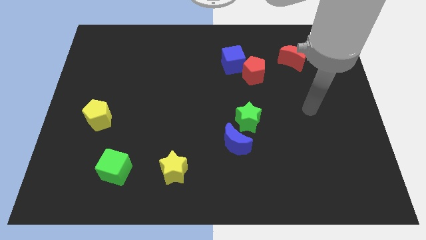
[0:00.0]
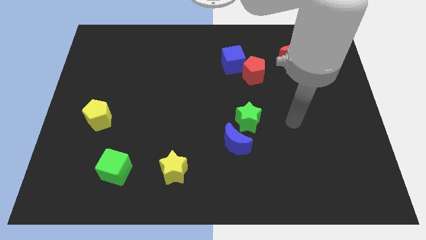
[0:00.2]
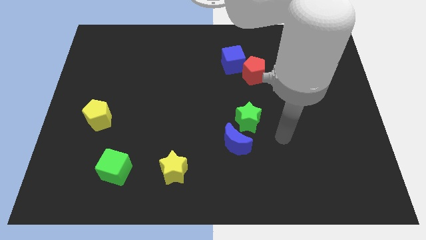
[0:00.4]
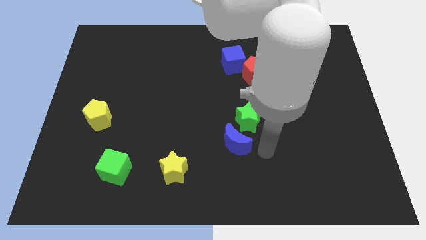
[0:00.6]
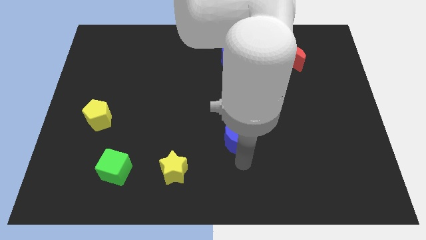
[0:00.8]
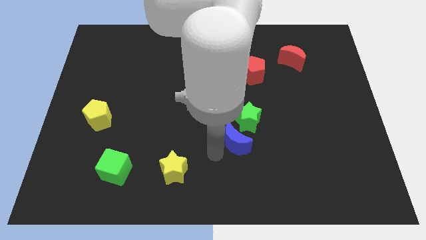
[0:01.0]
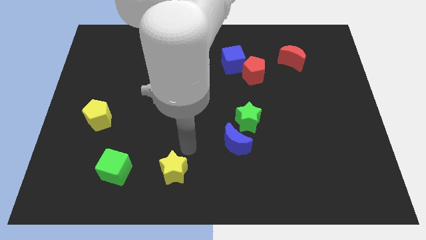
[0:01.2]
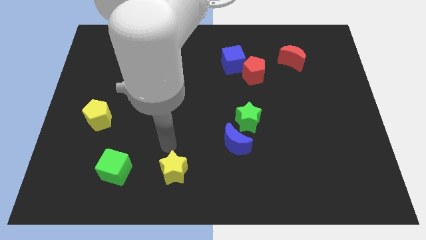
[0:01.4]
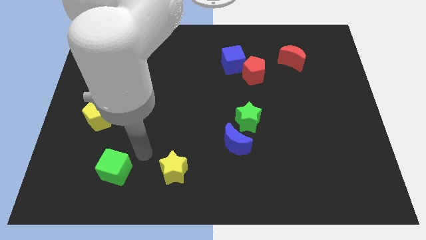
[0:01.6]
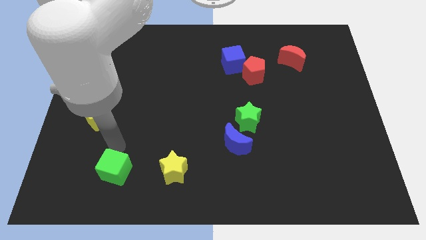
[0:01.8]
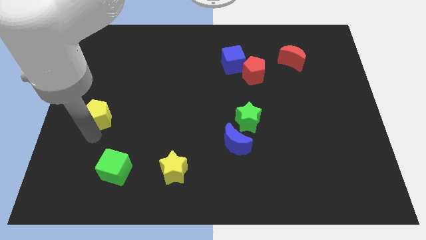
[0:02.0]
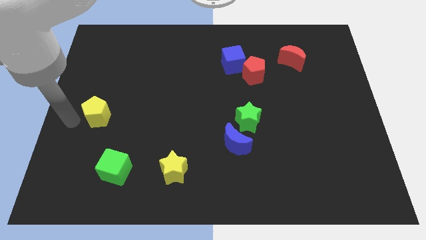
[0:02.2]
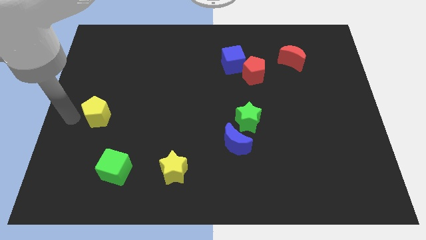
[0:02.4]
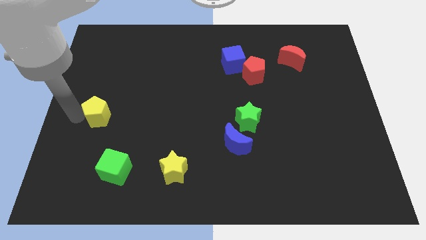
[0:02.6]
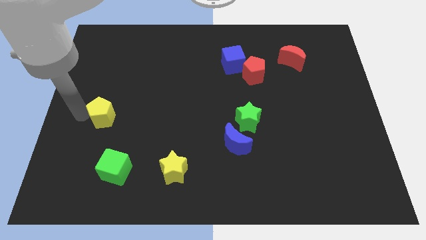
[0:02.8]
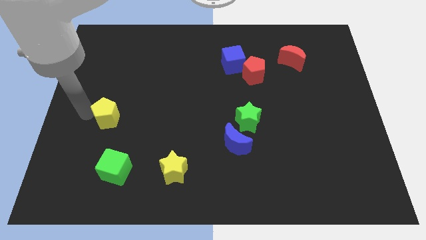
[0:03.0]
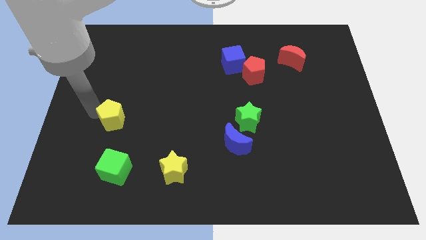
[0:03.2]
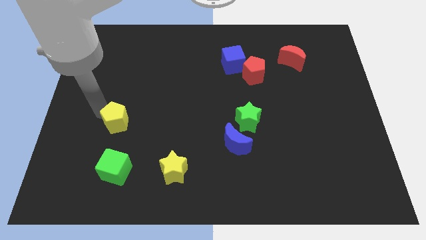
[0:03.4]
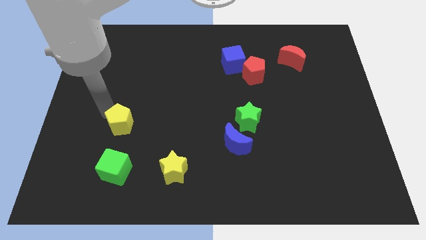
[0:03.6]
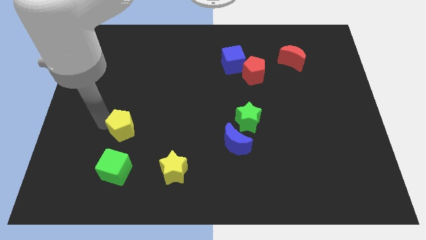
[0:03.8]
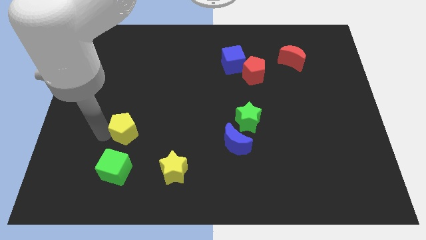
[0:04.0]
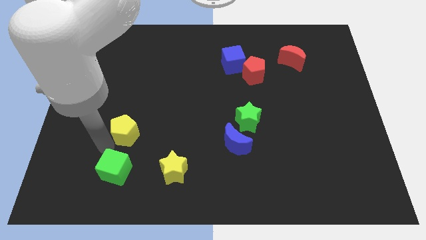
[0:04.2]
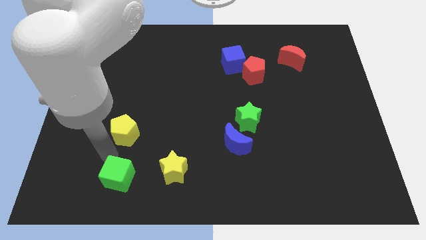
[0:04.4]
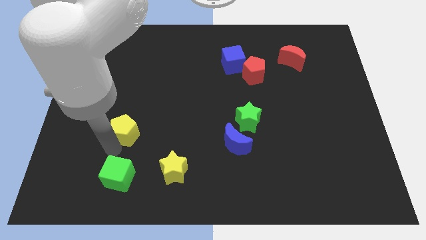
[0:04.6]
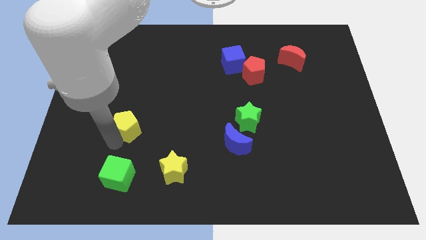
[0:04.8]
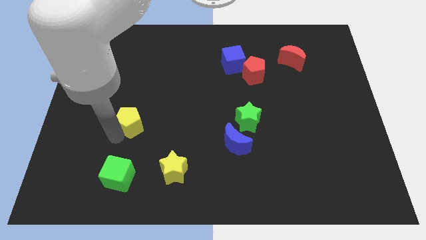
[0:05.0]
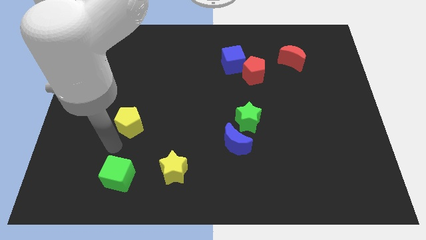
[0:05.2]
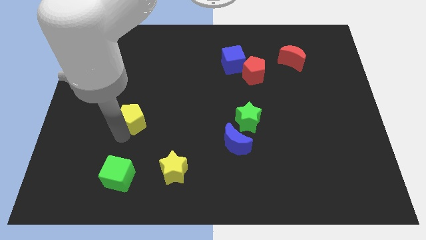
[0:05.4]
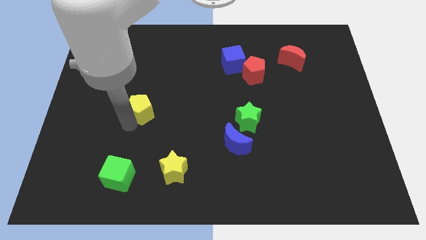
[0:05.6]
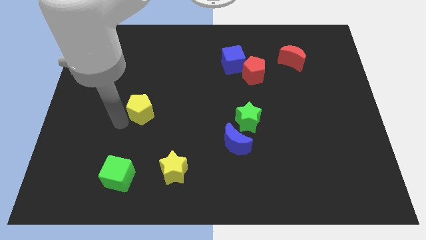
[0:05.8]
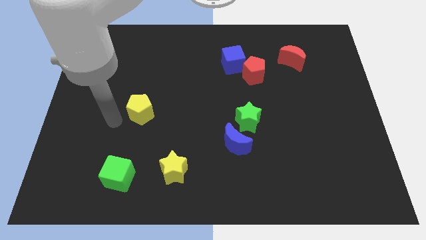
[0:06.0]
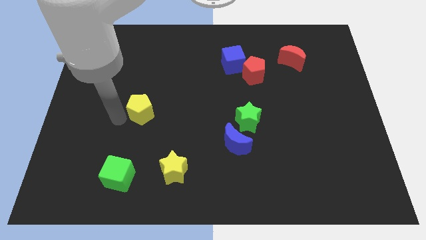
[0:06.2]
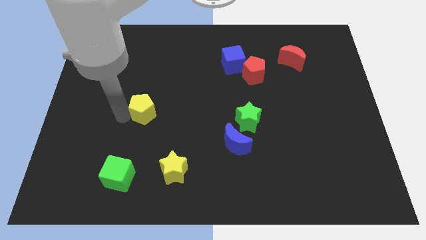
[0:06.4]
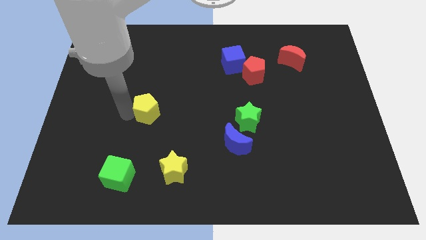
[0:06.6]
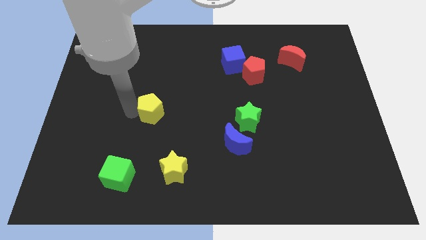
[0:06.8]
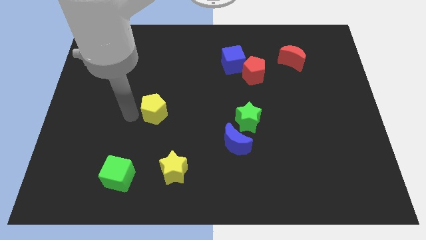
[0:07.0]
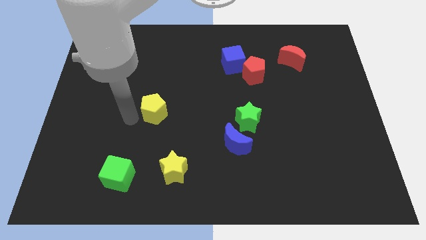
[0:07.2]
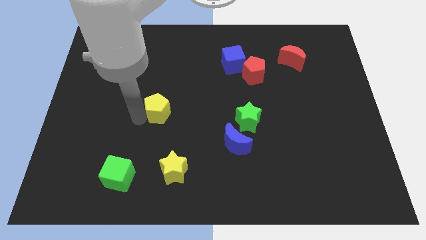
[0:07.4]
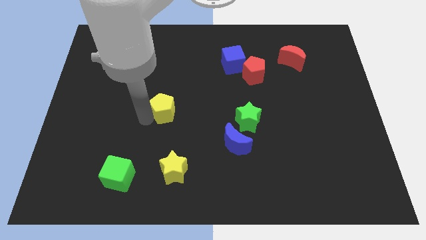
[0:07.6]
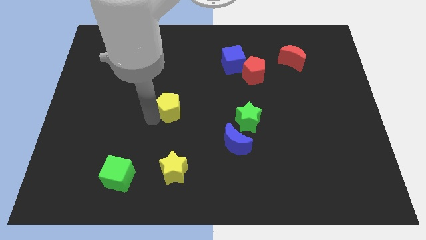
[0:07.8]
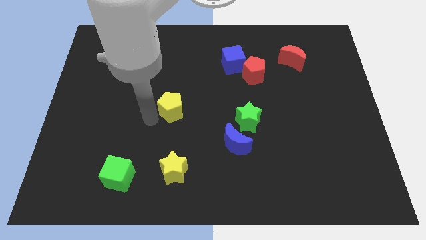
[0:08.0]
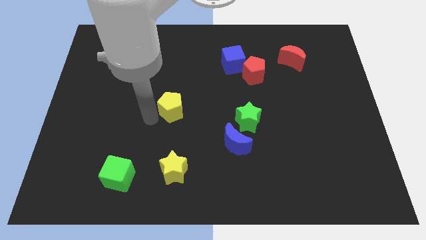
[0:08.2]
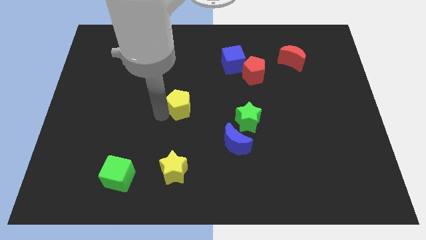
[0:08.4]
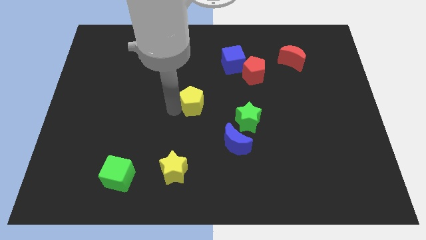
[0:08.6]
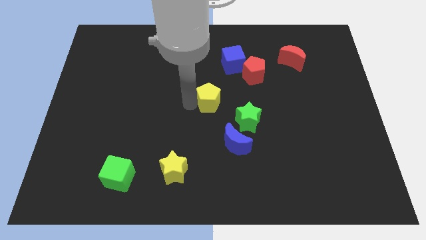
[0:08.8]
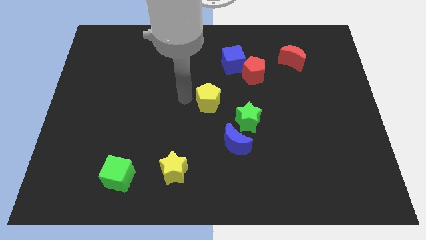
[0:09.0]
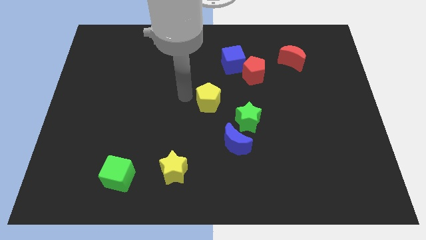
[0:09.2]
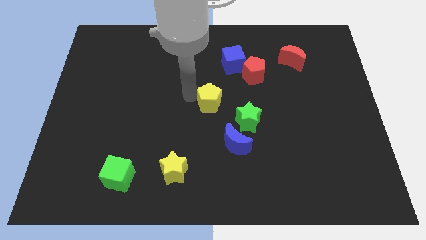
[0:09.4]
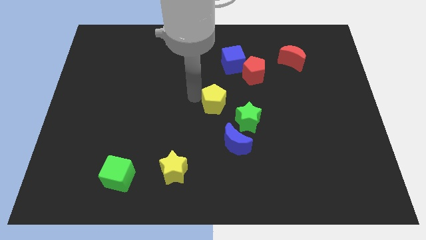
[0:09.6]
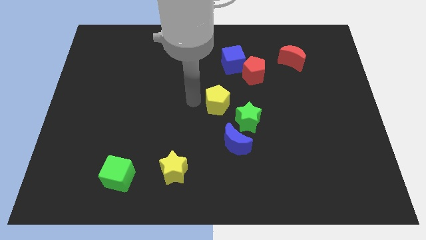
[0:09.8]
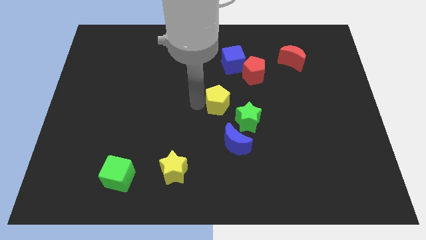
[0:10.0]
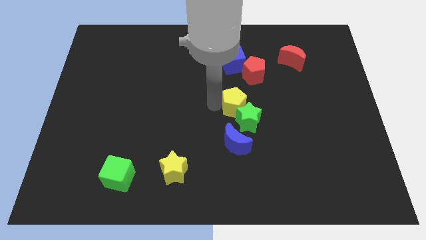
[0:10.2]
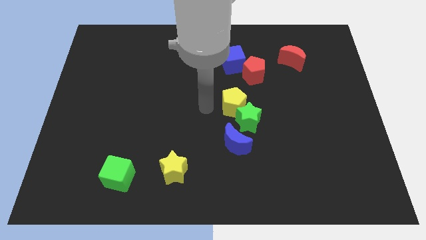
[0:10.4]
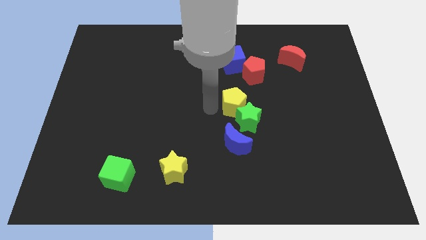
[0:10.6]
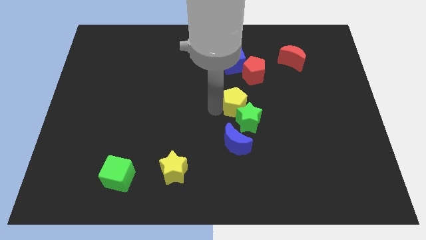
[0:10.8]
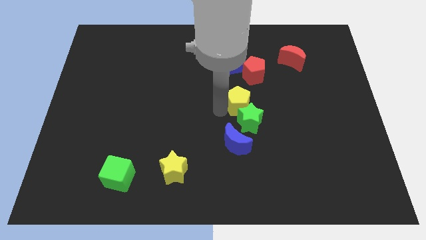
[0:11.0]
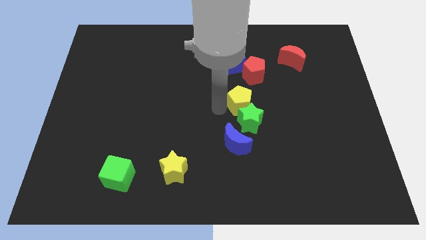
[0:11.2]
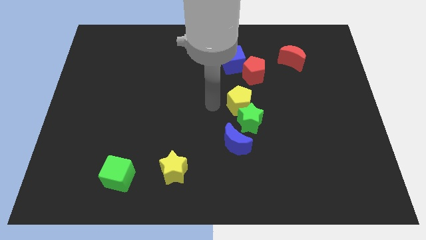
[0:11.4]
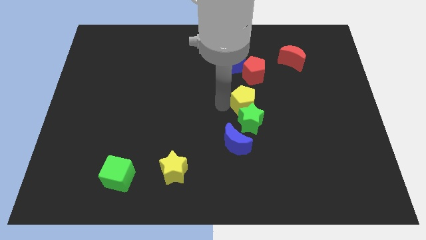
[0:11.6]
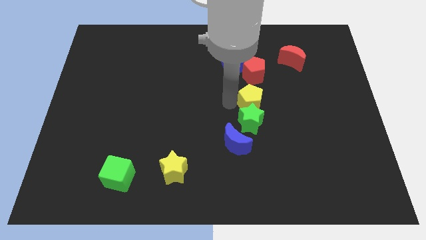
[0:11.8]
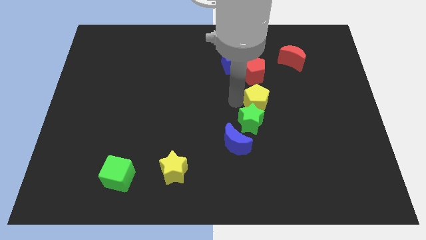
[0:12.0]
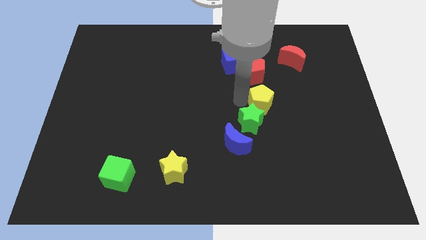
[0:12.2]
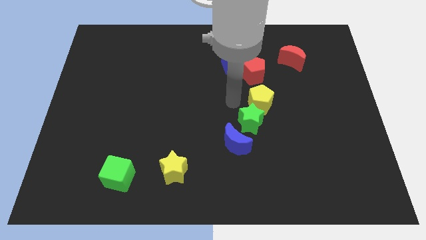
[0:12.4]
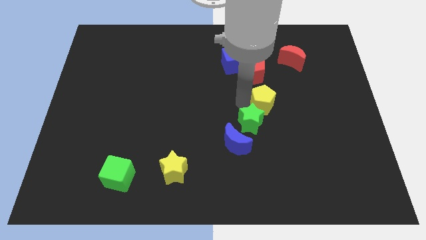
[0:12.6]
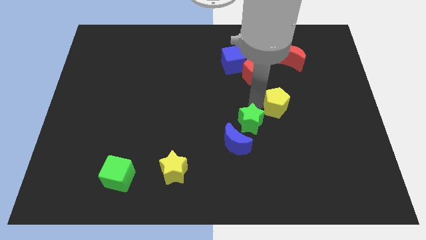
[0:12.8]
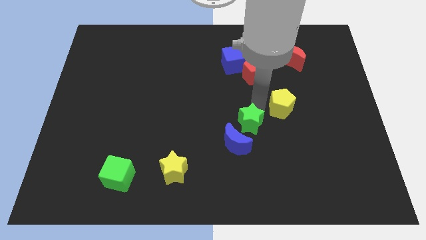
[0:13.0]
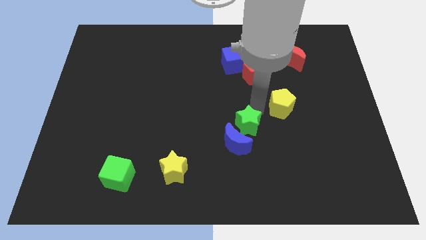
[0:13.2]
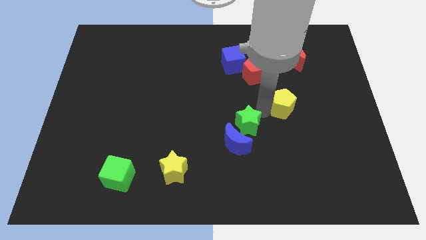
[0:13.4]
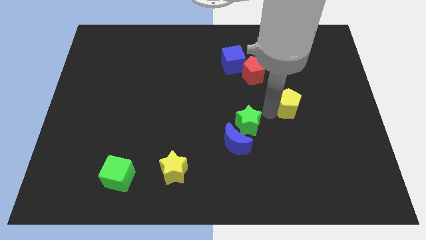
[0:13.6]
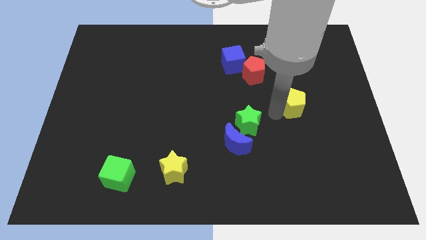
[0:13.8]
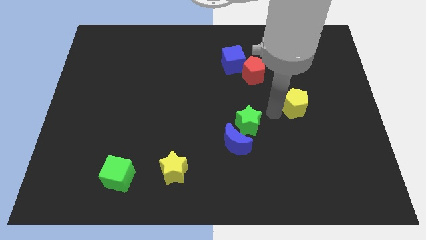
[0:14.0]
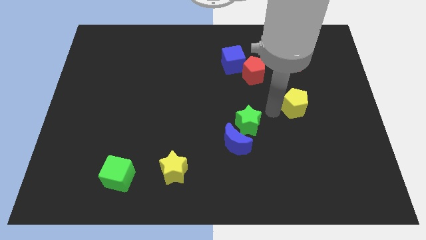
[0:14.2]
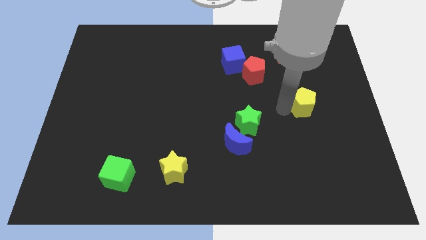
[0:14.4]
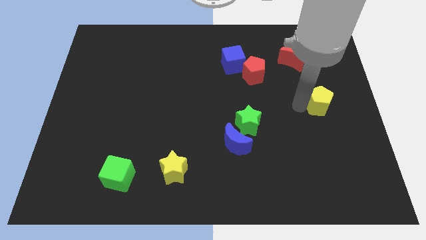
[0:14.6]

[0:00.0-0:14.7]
move the yellow pentagon to the center right

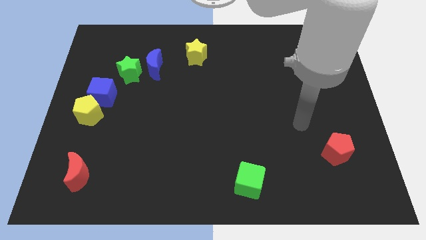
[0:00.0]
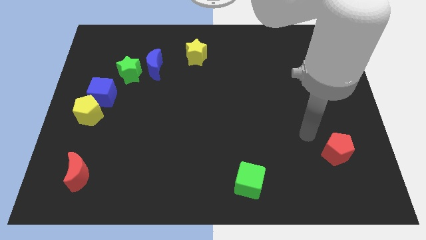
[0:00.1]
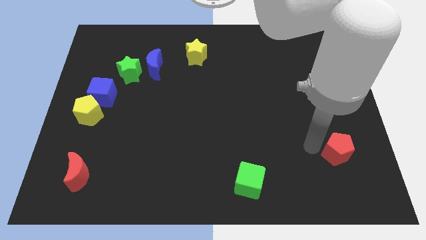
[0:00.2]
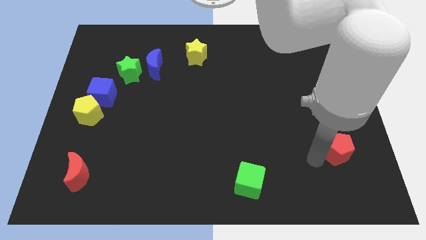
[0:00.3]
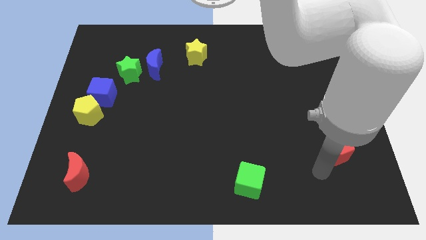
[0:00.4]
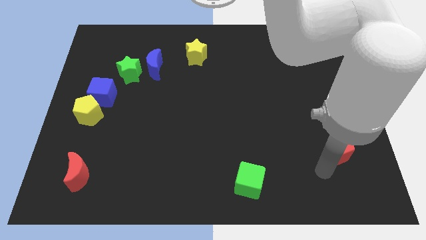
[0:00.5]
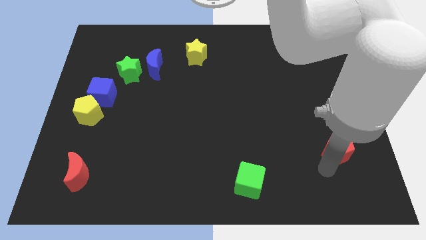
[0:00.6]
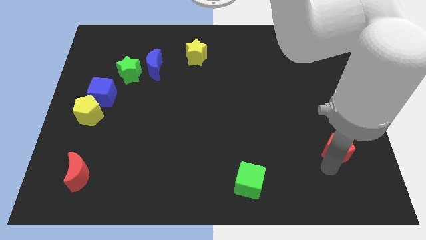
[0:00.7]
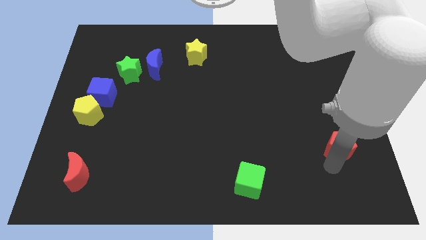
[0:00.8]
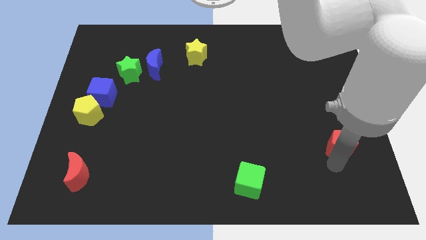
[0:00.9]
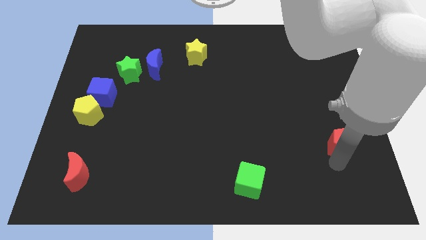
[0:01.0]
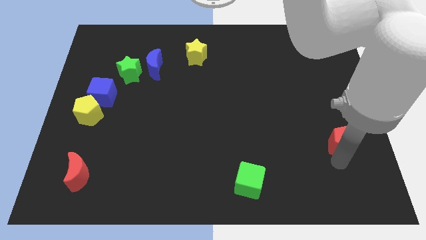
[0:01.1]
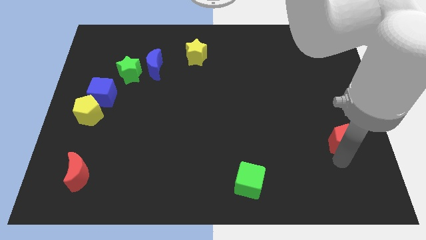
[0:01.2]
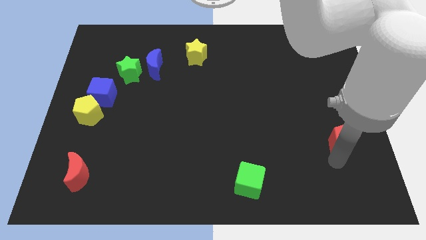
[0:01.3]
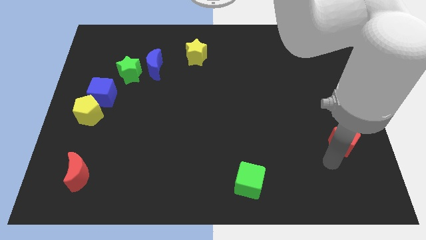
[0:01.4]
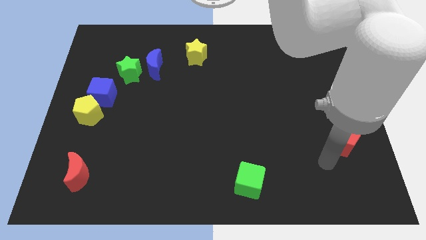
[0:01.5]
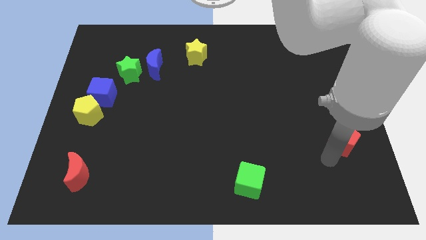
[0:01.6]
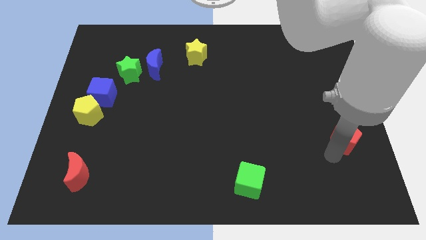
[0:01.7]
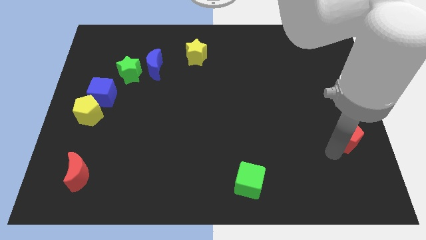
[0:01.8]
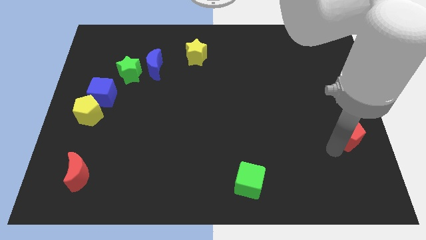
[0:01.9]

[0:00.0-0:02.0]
push the red pentagon to the right side of the board
